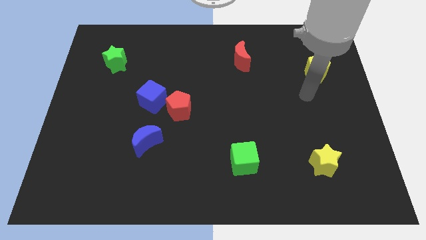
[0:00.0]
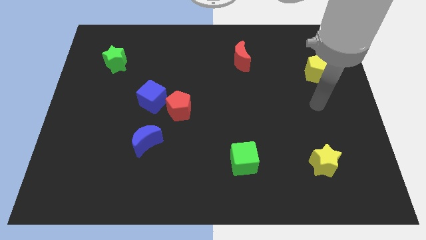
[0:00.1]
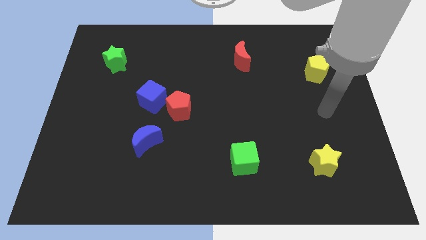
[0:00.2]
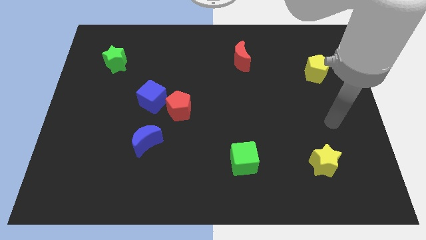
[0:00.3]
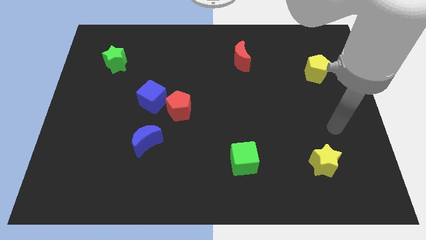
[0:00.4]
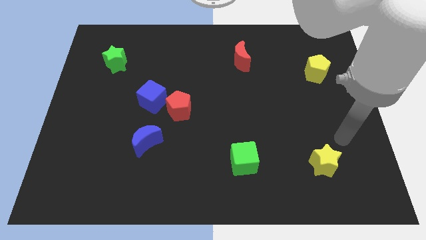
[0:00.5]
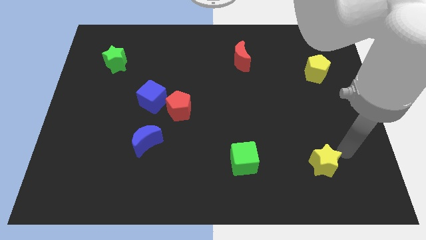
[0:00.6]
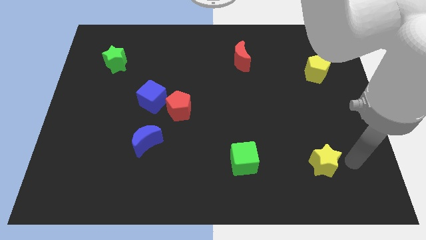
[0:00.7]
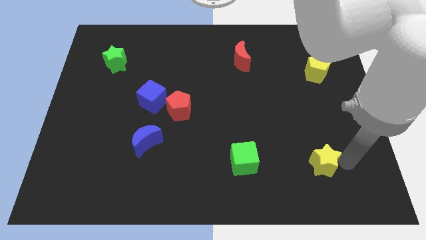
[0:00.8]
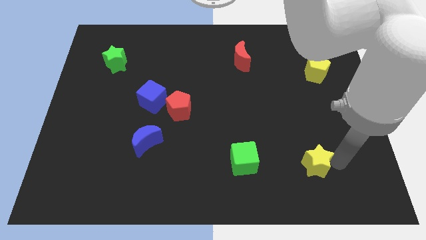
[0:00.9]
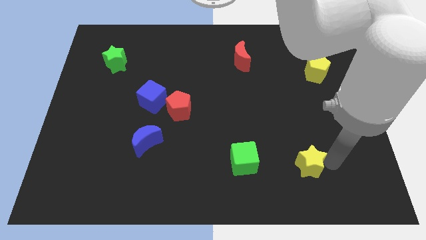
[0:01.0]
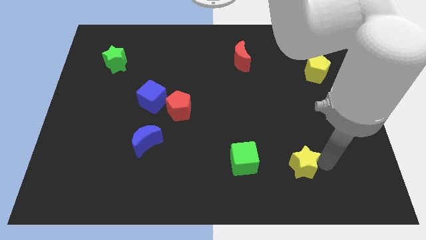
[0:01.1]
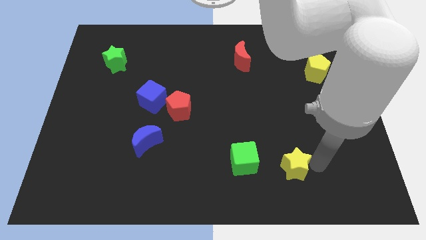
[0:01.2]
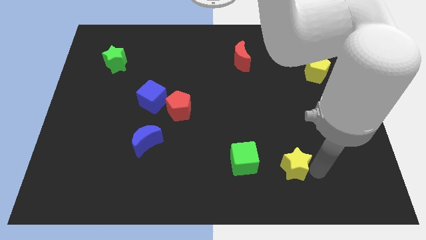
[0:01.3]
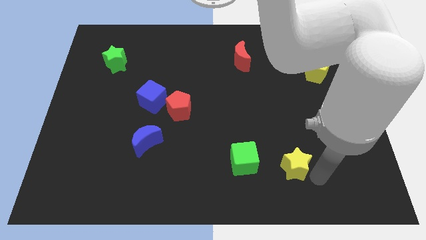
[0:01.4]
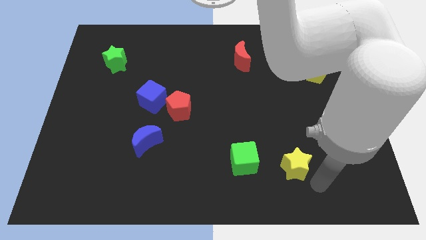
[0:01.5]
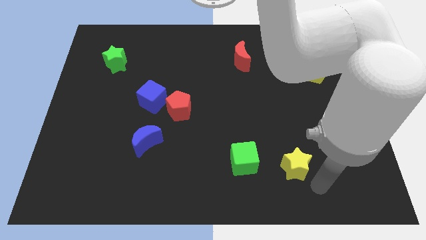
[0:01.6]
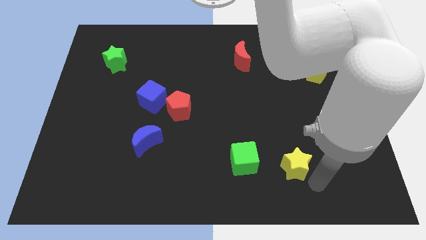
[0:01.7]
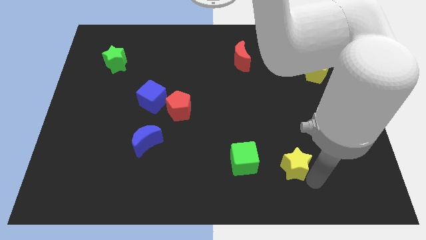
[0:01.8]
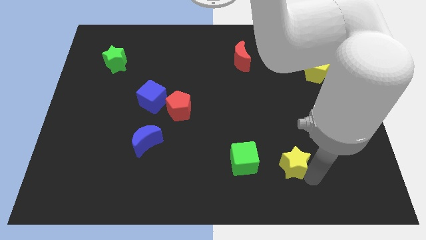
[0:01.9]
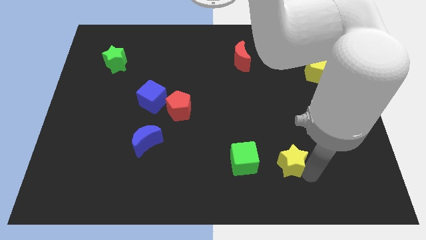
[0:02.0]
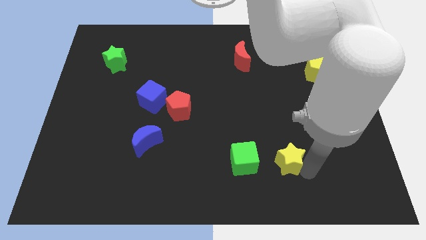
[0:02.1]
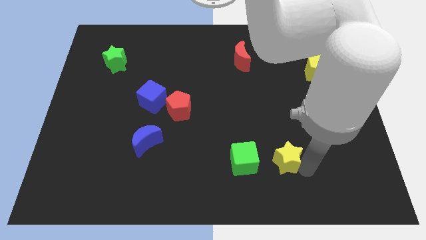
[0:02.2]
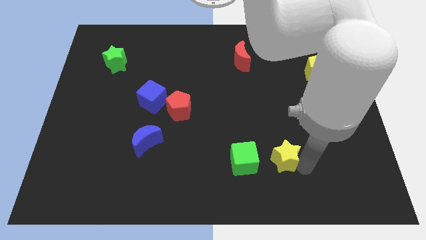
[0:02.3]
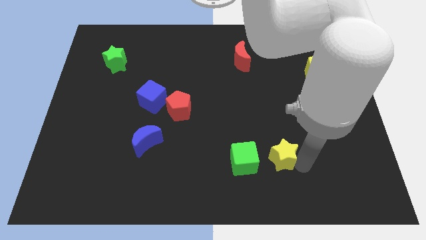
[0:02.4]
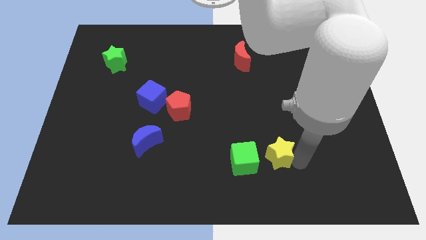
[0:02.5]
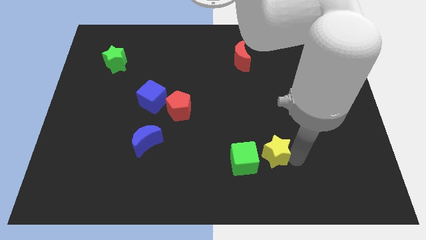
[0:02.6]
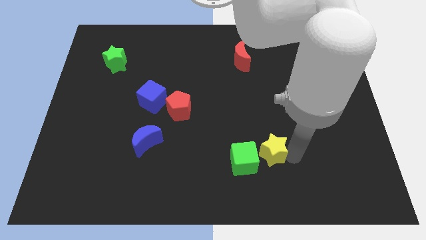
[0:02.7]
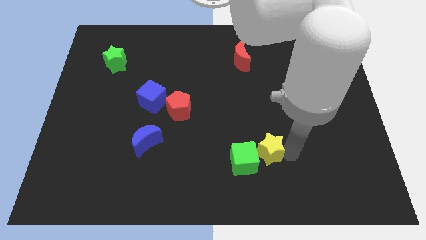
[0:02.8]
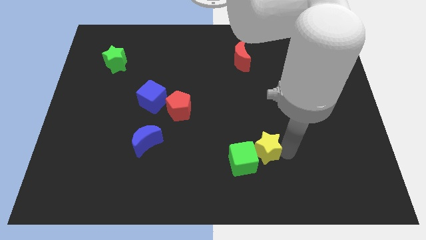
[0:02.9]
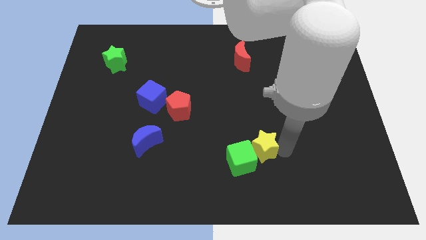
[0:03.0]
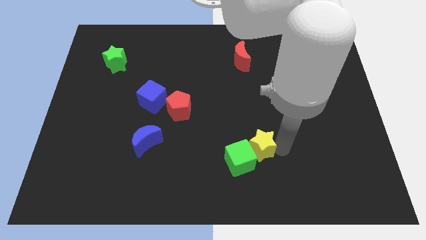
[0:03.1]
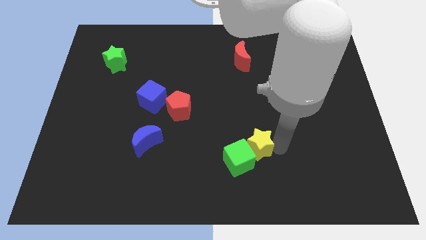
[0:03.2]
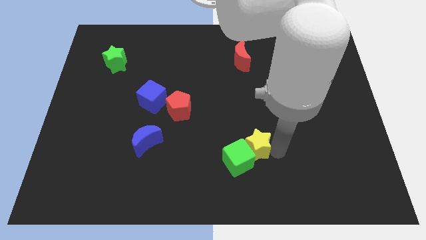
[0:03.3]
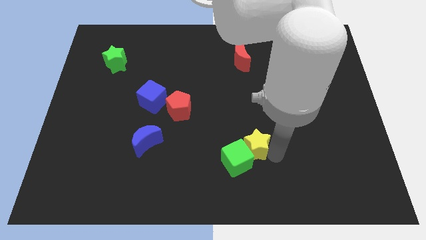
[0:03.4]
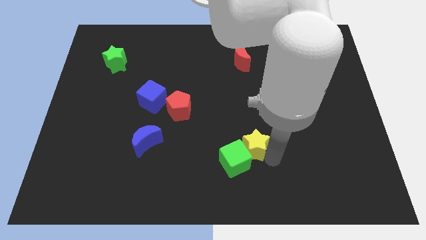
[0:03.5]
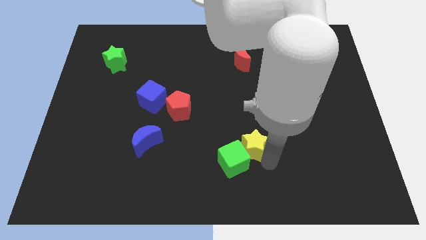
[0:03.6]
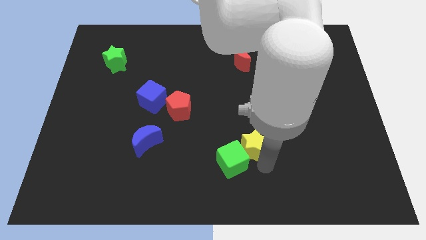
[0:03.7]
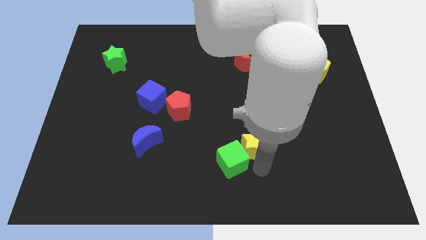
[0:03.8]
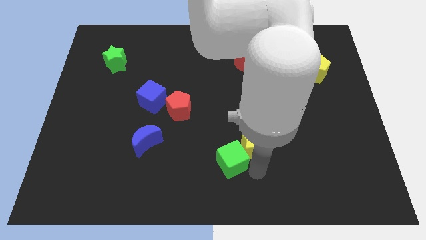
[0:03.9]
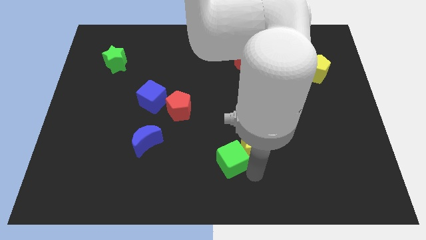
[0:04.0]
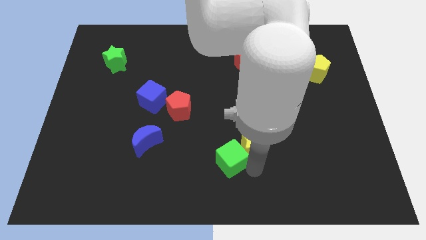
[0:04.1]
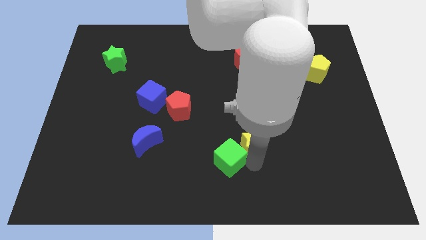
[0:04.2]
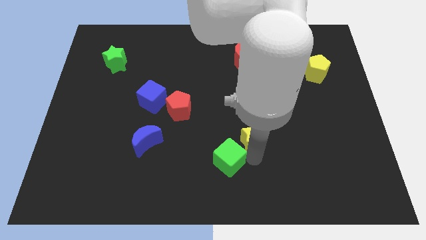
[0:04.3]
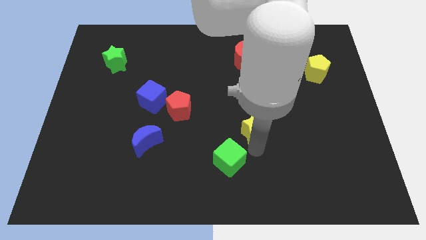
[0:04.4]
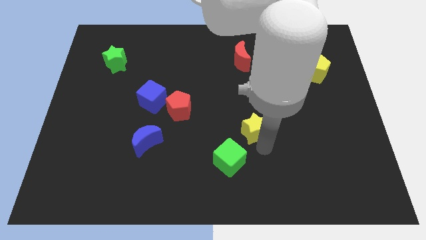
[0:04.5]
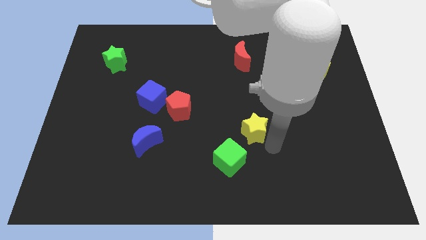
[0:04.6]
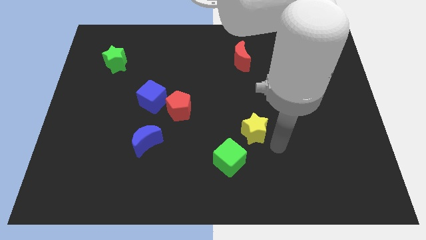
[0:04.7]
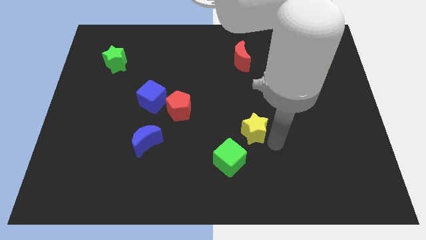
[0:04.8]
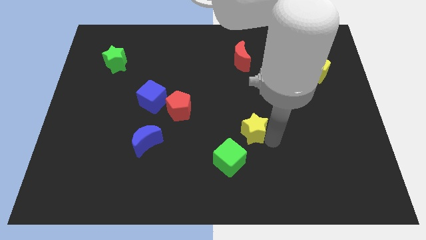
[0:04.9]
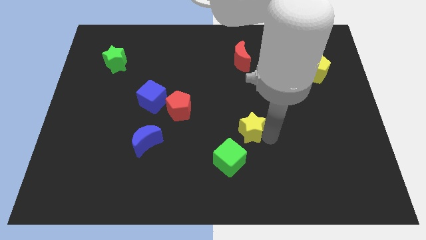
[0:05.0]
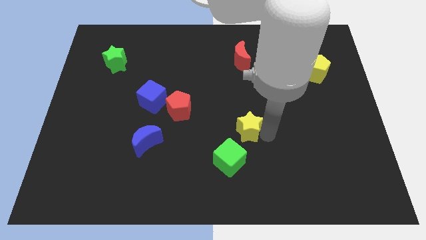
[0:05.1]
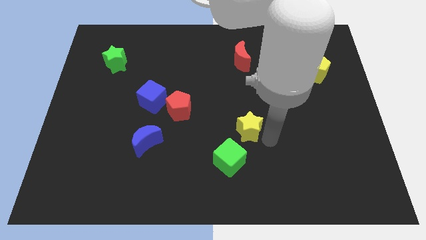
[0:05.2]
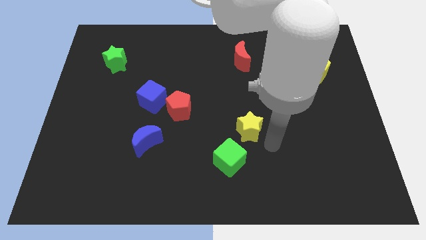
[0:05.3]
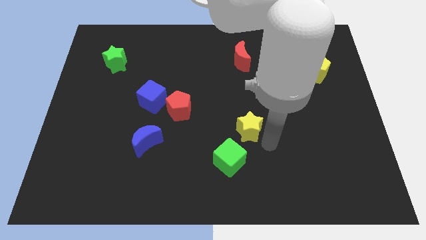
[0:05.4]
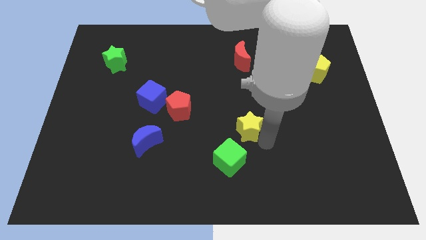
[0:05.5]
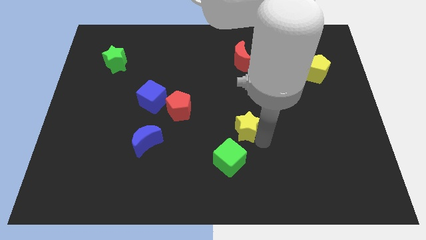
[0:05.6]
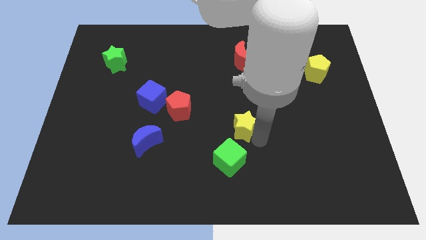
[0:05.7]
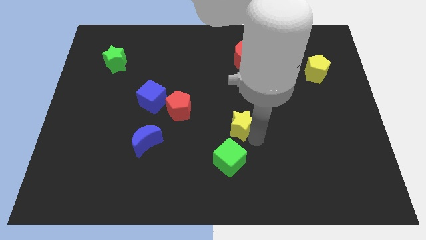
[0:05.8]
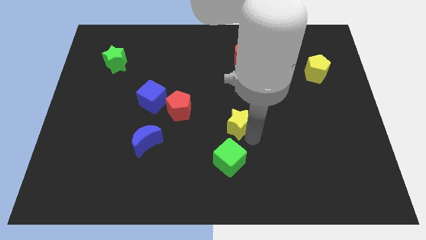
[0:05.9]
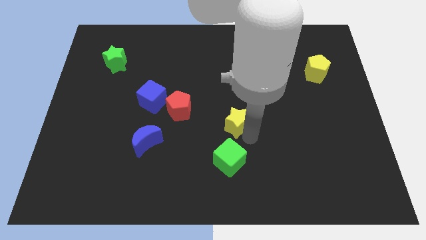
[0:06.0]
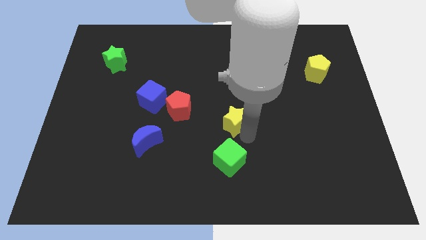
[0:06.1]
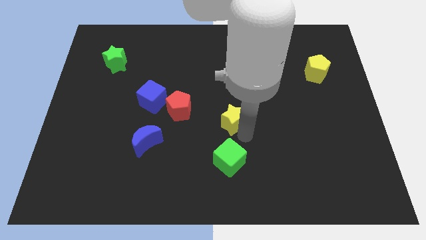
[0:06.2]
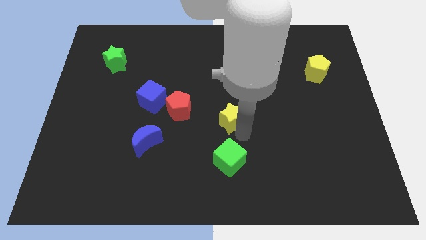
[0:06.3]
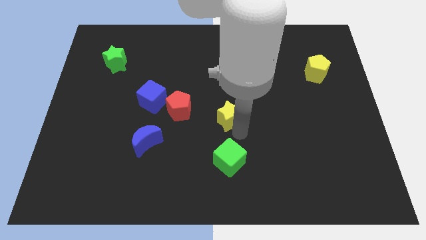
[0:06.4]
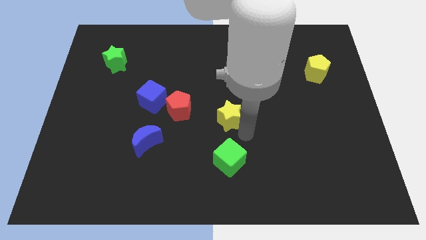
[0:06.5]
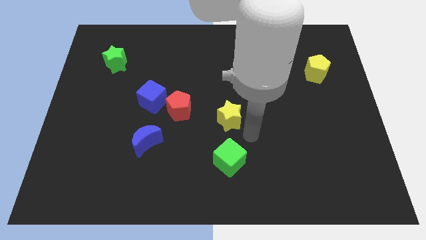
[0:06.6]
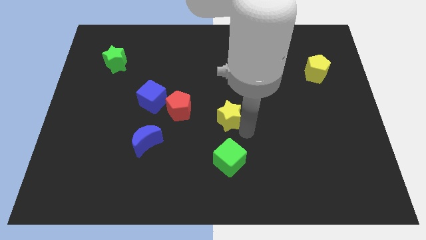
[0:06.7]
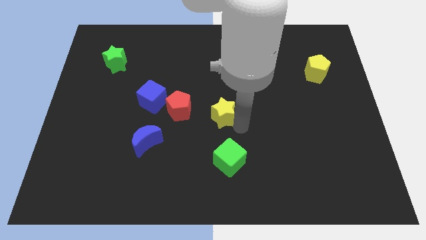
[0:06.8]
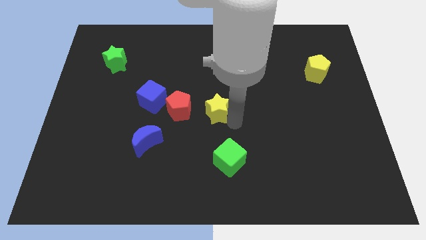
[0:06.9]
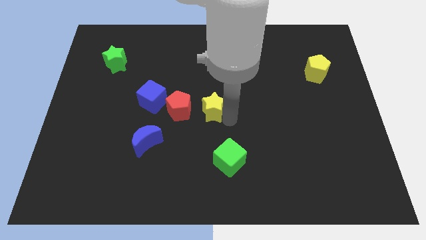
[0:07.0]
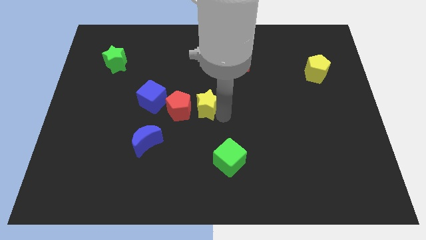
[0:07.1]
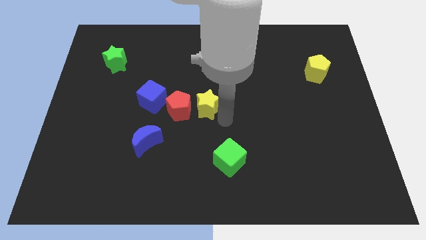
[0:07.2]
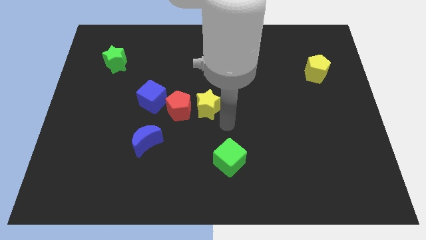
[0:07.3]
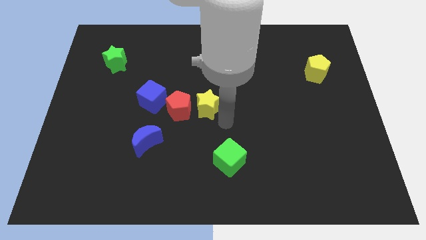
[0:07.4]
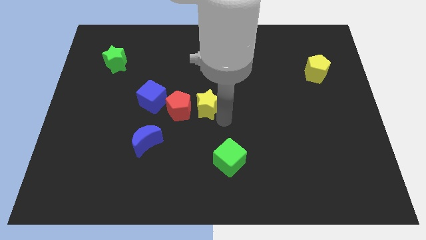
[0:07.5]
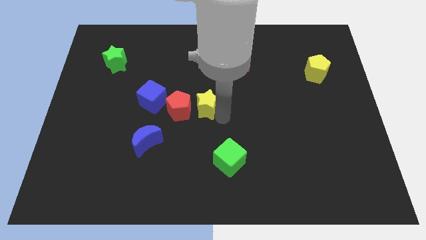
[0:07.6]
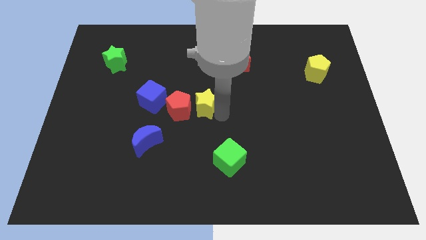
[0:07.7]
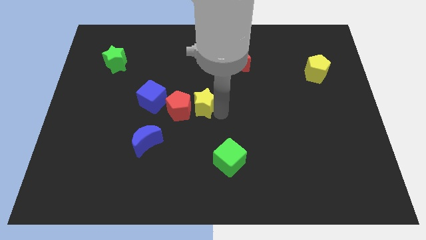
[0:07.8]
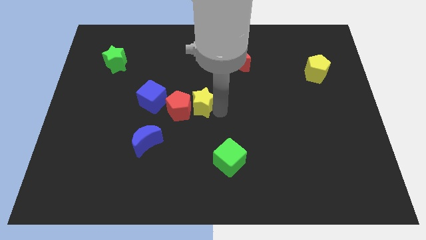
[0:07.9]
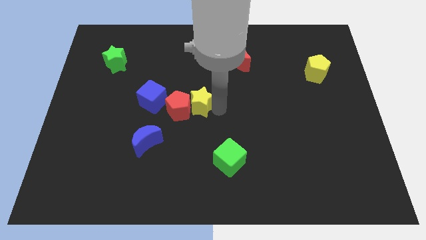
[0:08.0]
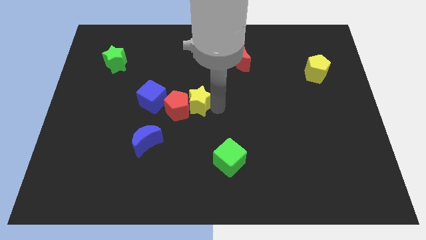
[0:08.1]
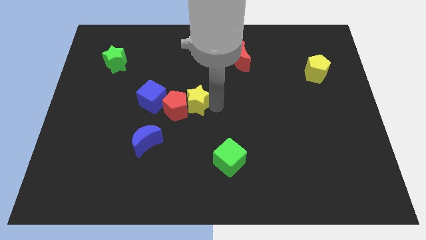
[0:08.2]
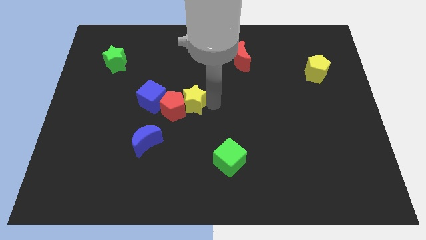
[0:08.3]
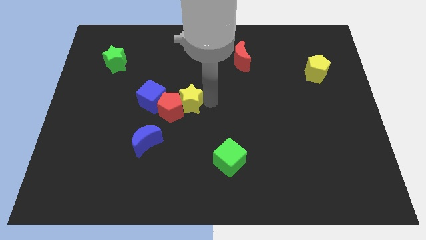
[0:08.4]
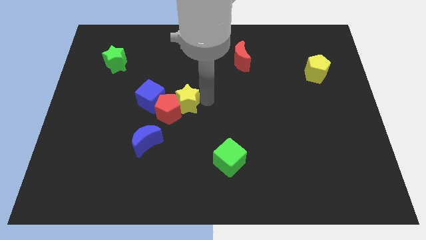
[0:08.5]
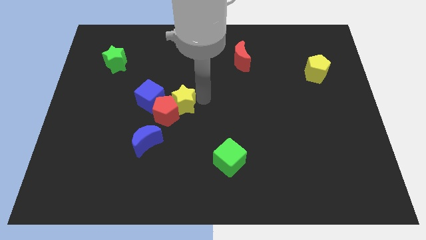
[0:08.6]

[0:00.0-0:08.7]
move the yellow star above the red pentagon
